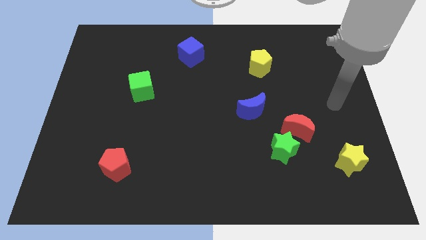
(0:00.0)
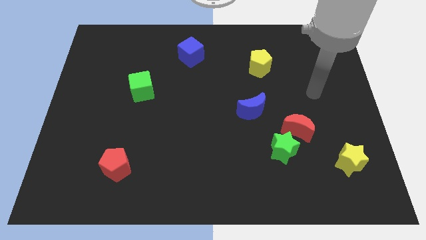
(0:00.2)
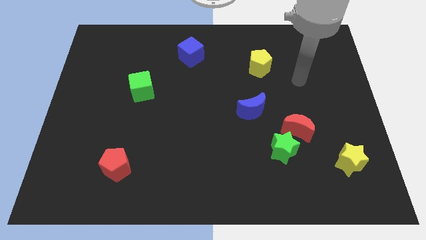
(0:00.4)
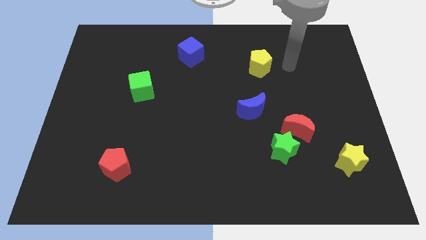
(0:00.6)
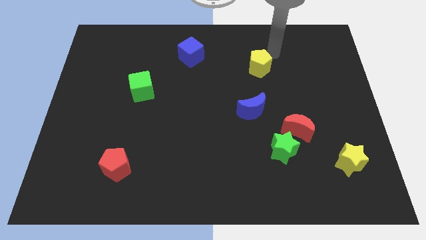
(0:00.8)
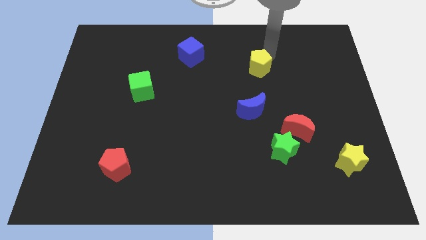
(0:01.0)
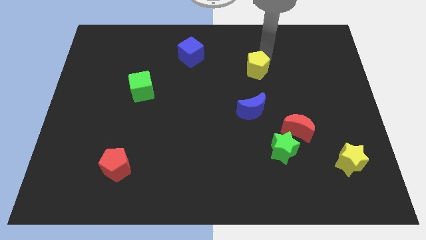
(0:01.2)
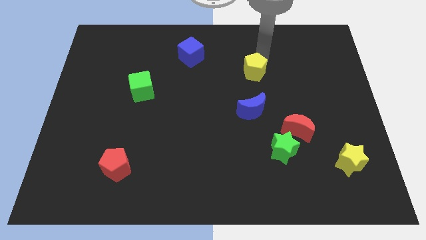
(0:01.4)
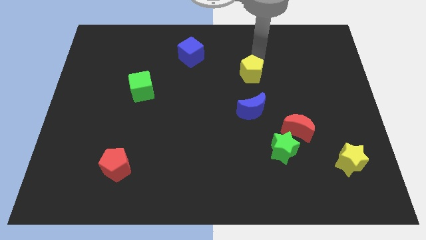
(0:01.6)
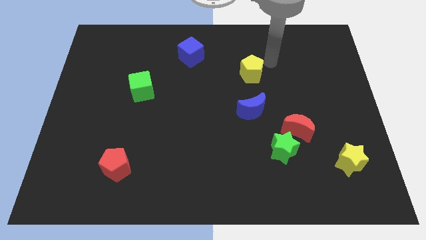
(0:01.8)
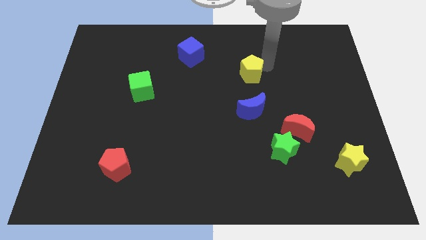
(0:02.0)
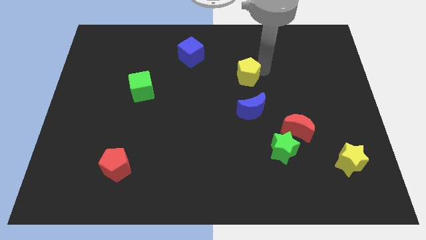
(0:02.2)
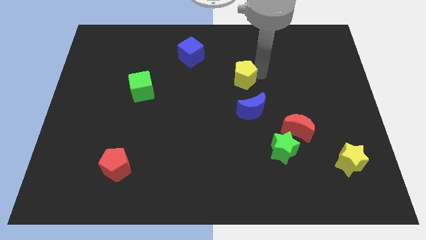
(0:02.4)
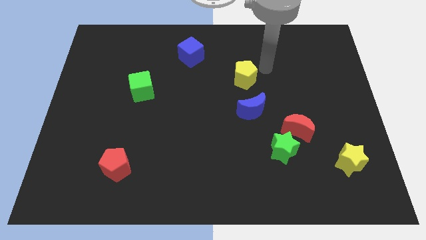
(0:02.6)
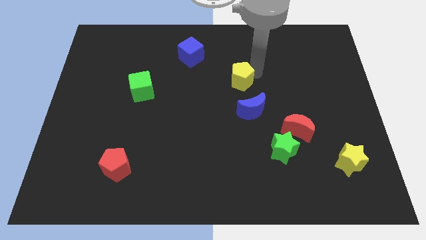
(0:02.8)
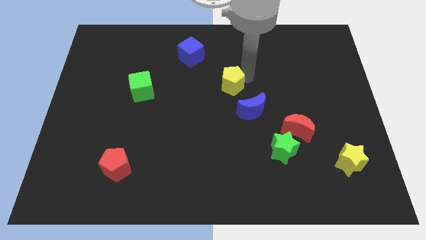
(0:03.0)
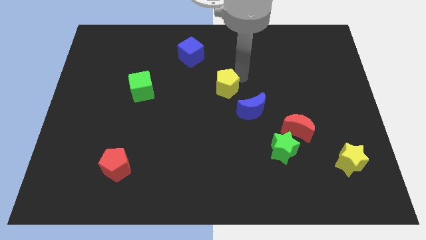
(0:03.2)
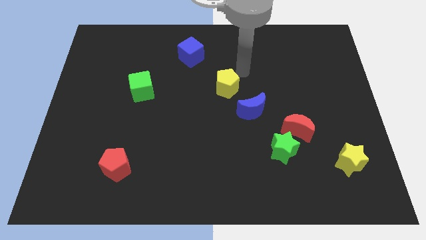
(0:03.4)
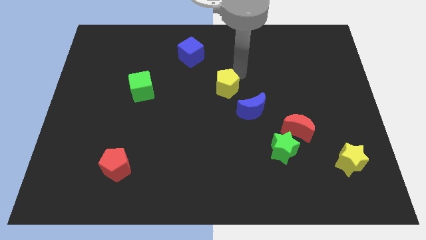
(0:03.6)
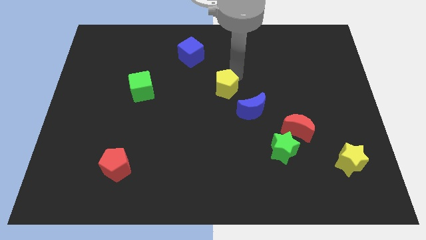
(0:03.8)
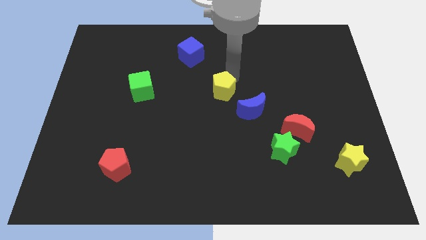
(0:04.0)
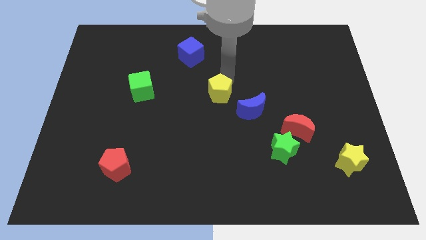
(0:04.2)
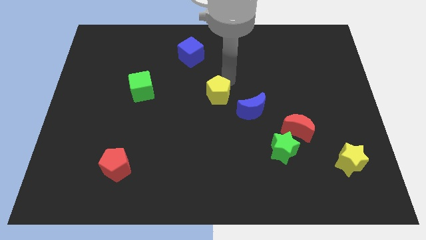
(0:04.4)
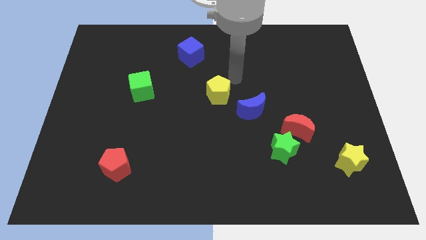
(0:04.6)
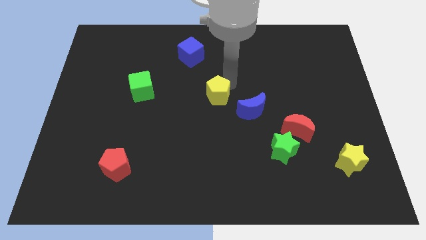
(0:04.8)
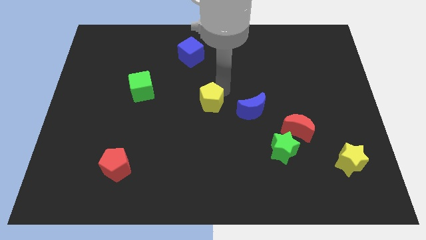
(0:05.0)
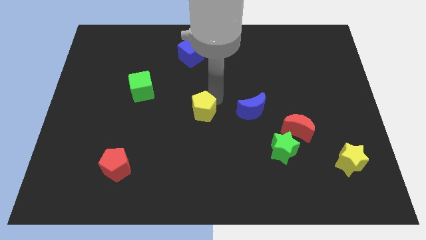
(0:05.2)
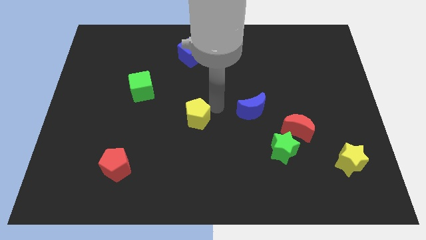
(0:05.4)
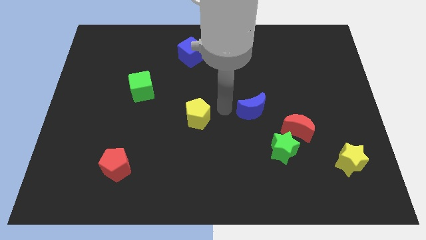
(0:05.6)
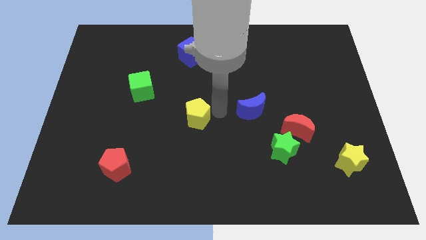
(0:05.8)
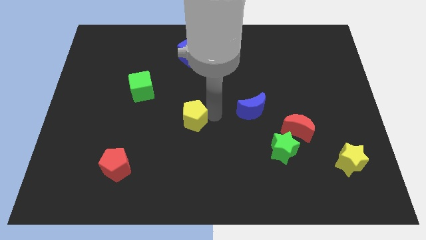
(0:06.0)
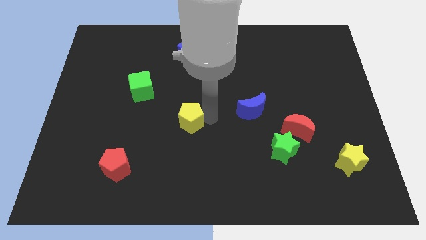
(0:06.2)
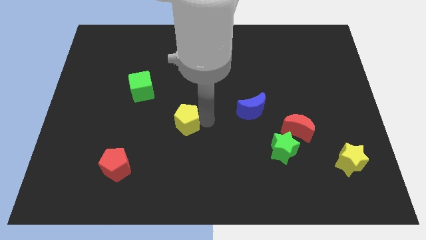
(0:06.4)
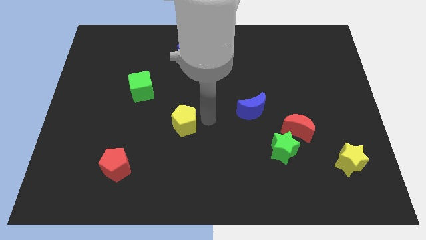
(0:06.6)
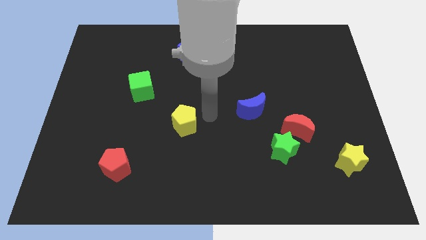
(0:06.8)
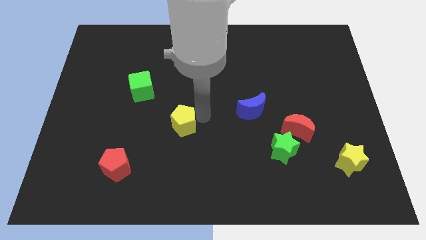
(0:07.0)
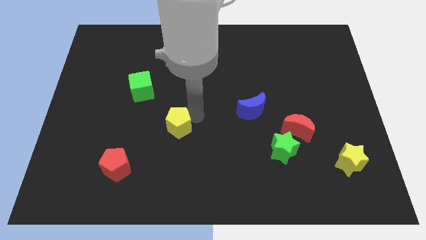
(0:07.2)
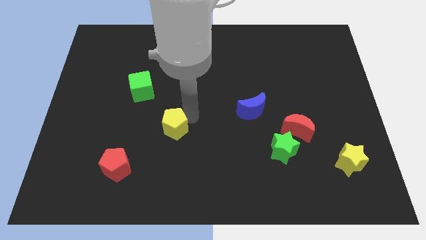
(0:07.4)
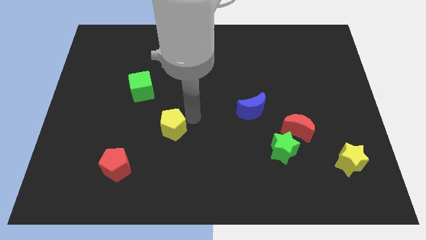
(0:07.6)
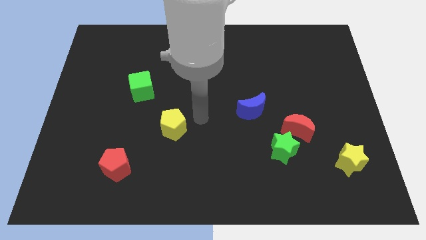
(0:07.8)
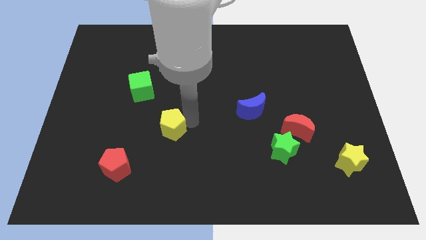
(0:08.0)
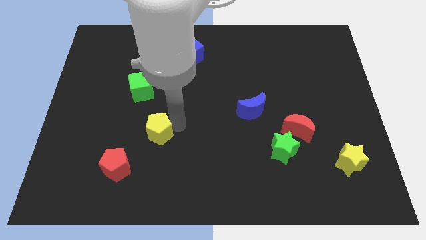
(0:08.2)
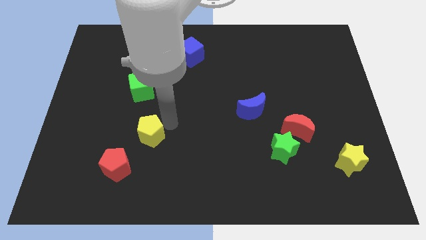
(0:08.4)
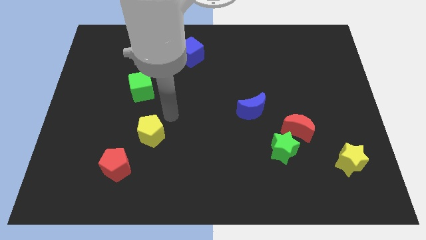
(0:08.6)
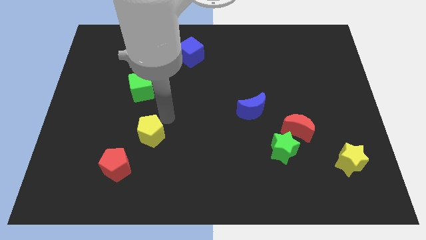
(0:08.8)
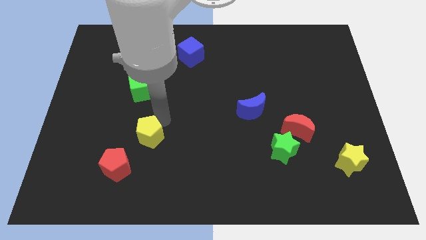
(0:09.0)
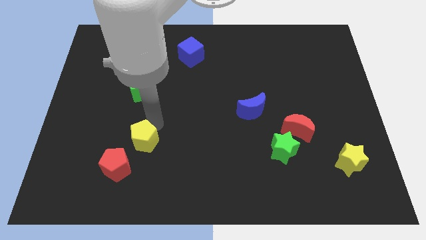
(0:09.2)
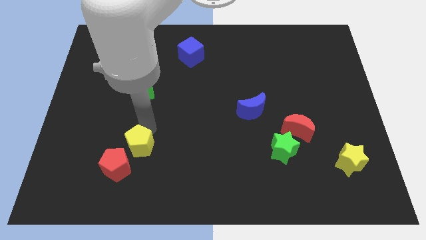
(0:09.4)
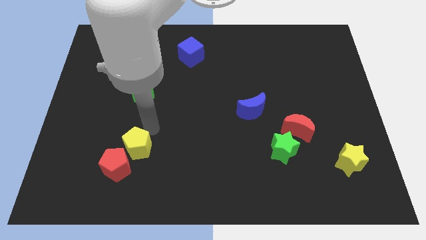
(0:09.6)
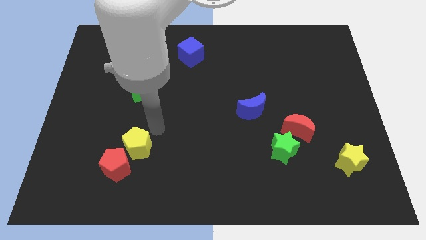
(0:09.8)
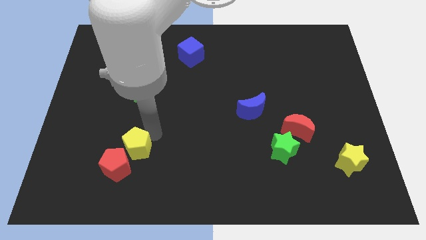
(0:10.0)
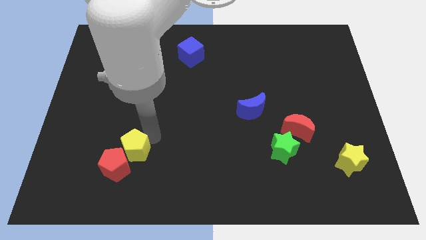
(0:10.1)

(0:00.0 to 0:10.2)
put the yellow pentagon next to the red pentagon

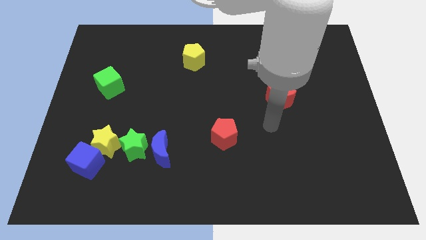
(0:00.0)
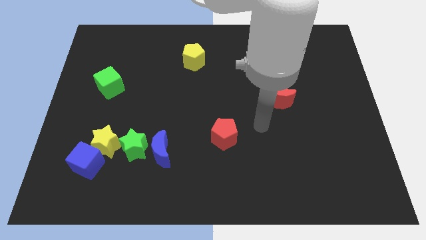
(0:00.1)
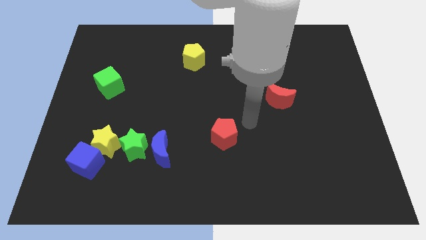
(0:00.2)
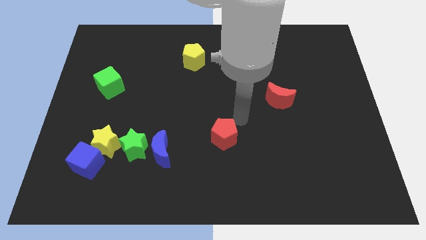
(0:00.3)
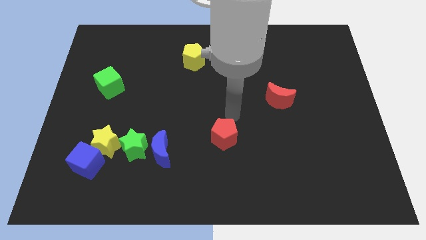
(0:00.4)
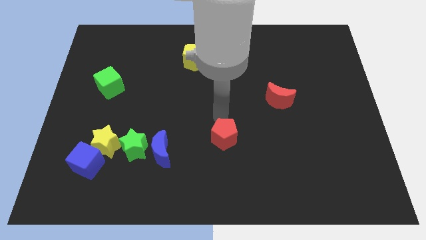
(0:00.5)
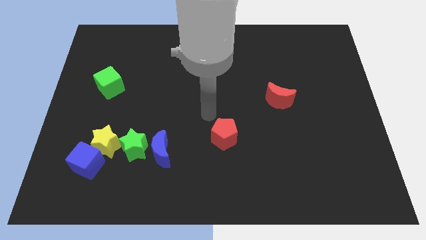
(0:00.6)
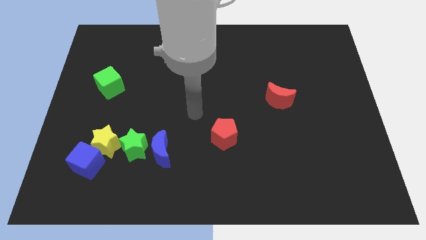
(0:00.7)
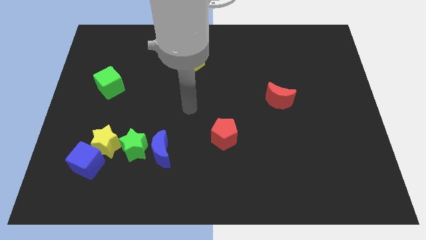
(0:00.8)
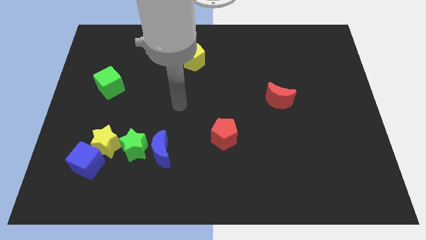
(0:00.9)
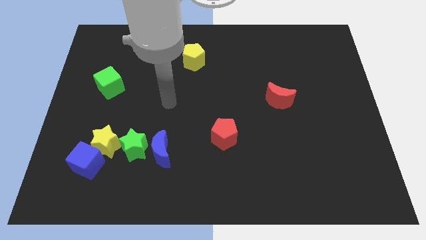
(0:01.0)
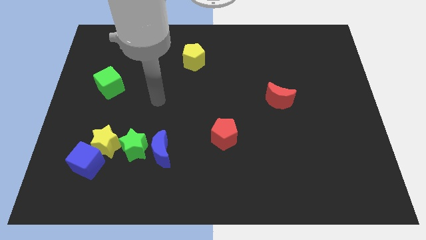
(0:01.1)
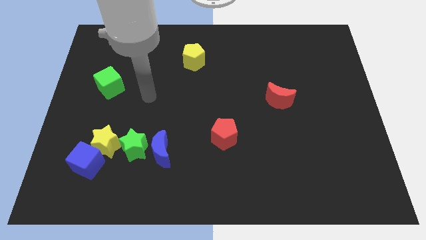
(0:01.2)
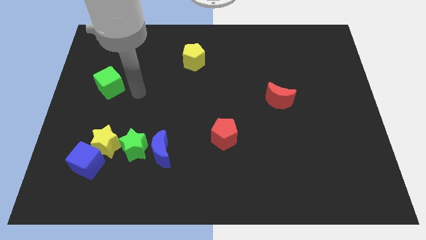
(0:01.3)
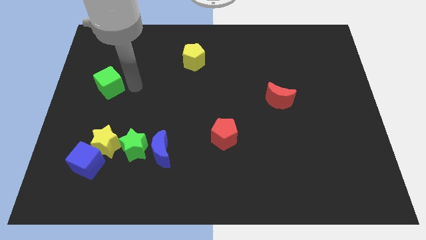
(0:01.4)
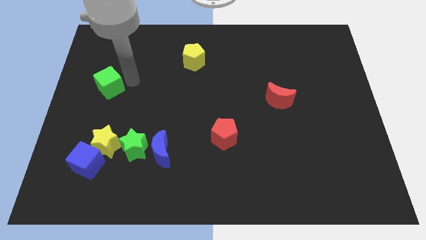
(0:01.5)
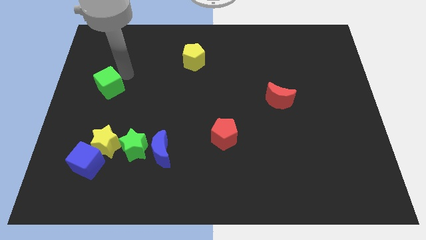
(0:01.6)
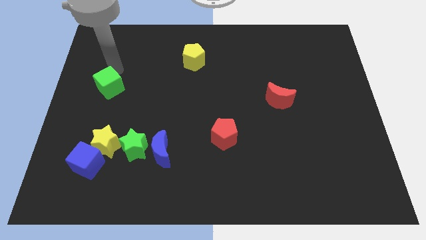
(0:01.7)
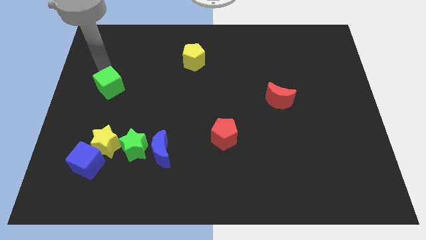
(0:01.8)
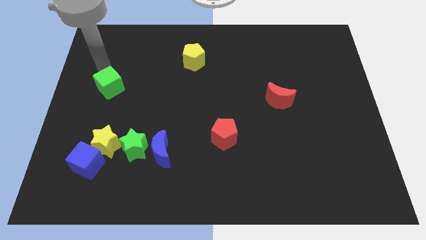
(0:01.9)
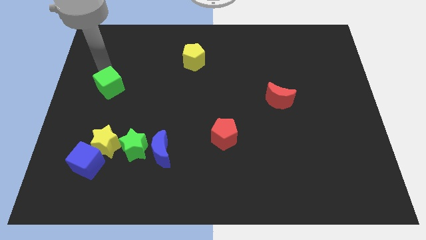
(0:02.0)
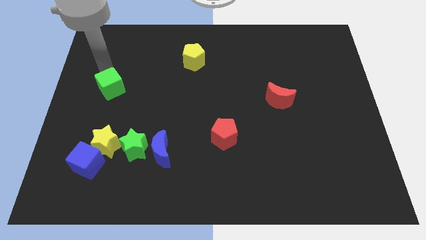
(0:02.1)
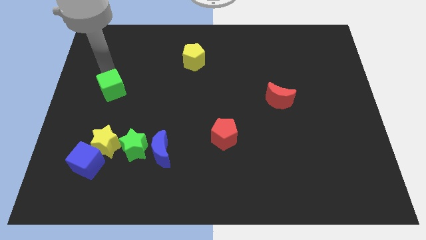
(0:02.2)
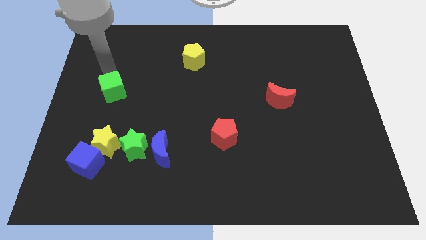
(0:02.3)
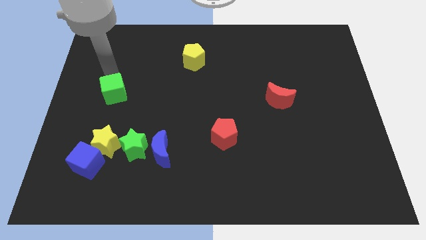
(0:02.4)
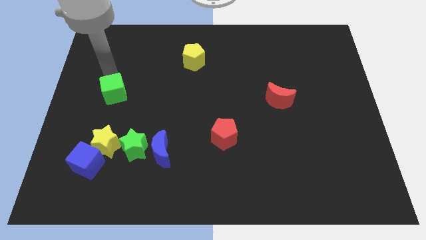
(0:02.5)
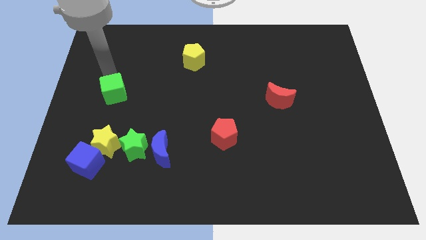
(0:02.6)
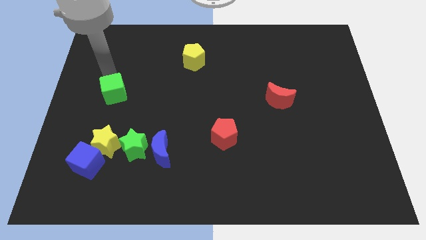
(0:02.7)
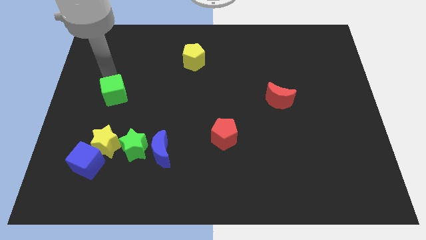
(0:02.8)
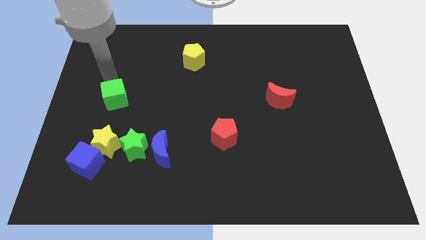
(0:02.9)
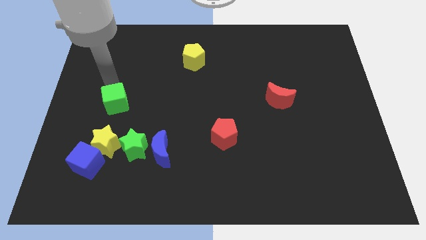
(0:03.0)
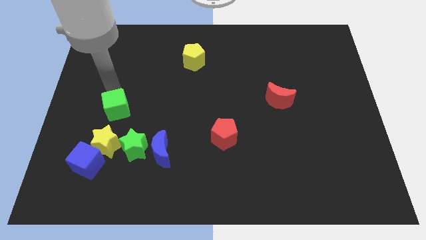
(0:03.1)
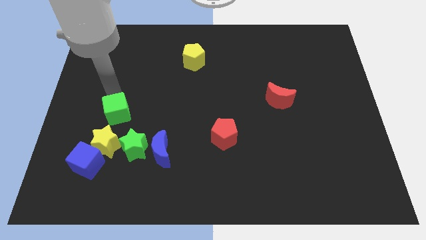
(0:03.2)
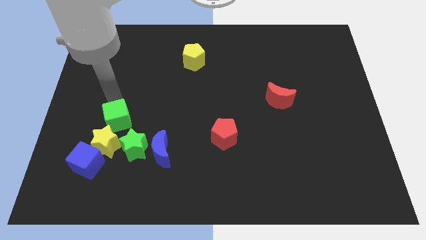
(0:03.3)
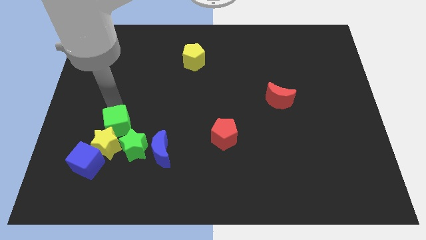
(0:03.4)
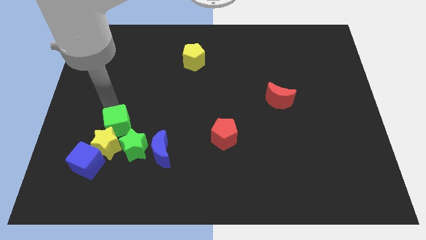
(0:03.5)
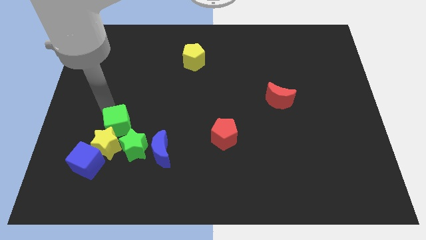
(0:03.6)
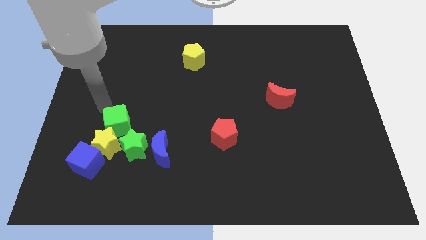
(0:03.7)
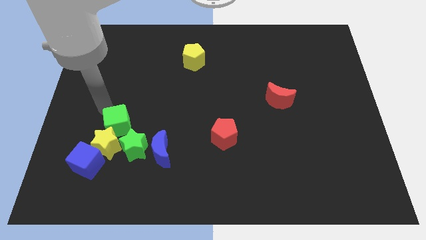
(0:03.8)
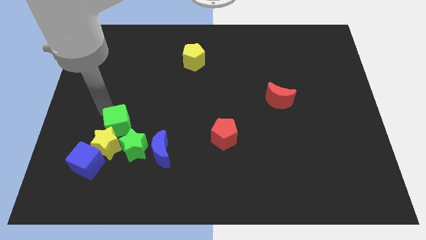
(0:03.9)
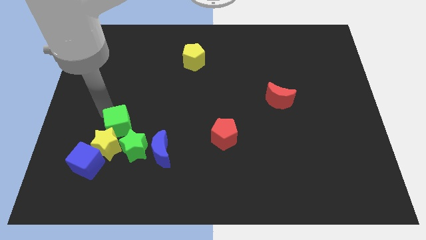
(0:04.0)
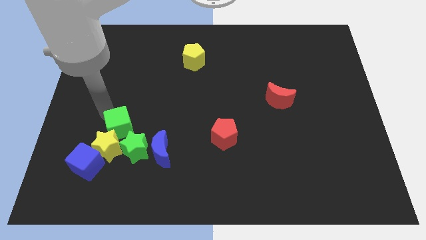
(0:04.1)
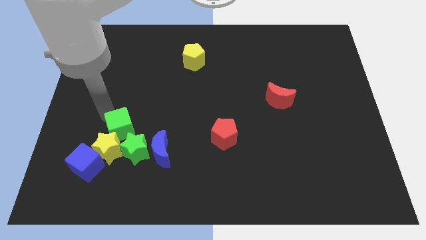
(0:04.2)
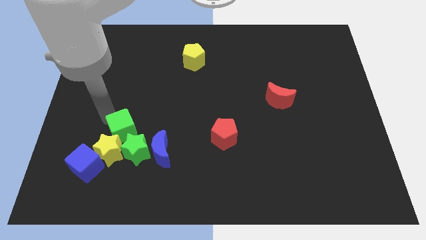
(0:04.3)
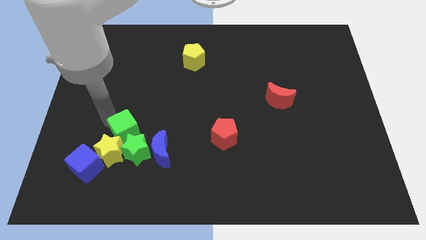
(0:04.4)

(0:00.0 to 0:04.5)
move the green cube to the green star
